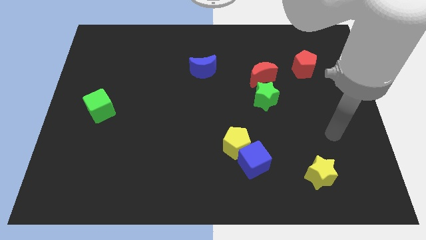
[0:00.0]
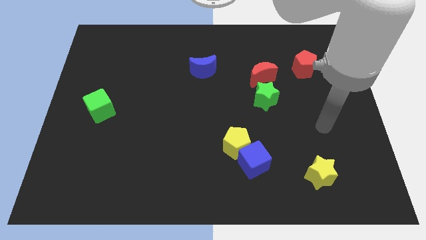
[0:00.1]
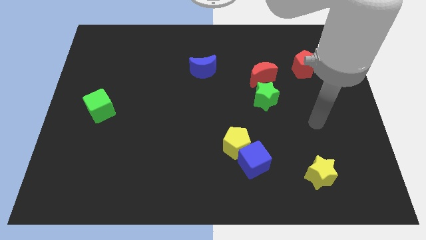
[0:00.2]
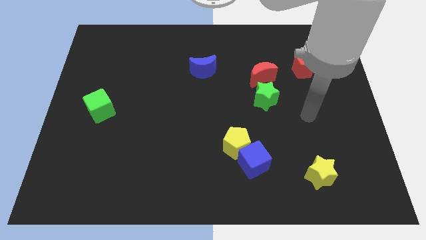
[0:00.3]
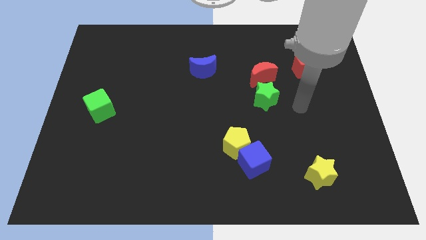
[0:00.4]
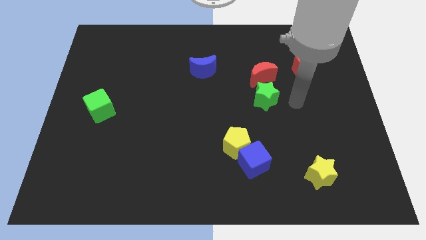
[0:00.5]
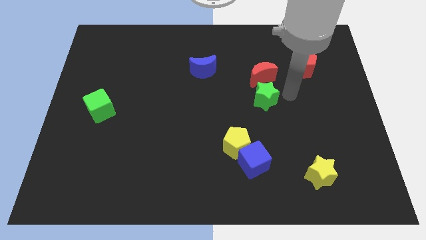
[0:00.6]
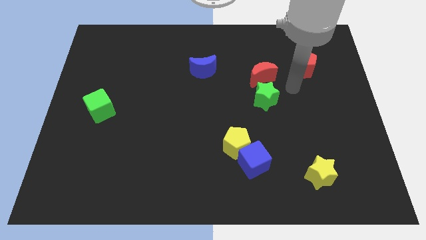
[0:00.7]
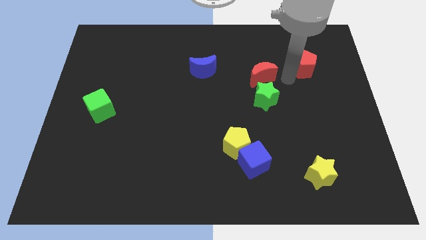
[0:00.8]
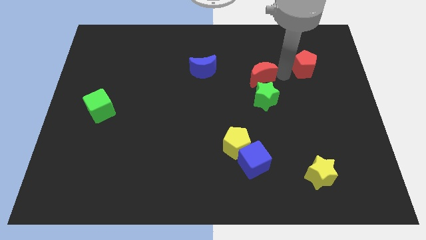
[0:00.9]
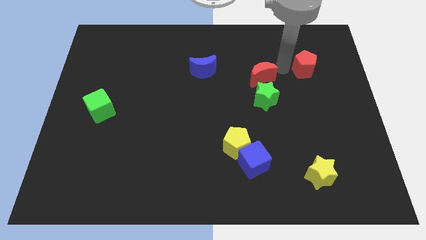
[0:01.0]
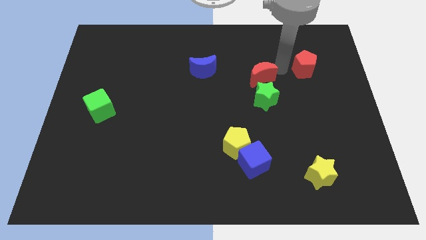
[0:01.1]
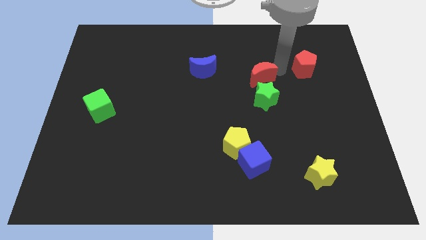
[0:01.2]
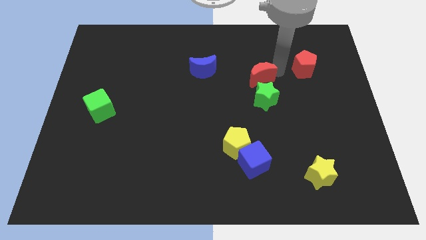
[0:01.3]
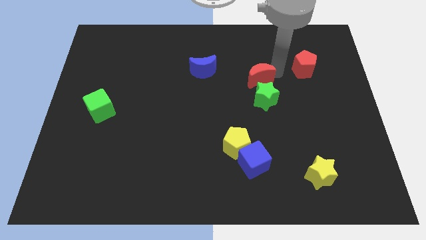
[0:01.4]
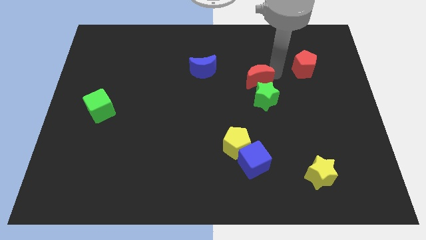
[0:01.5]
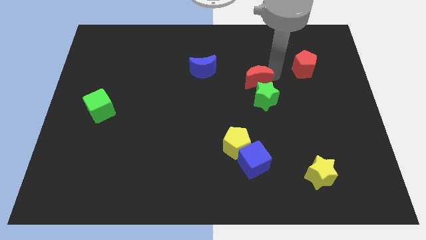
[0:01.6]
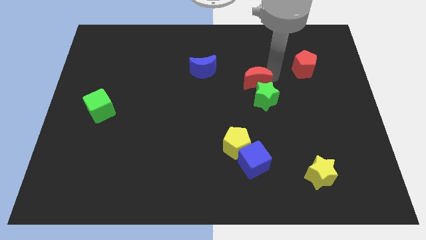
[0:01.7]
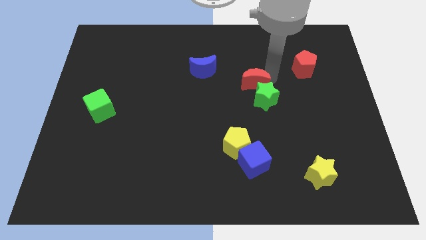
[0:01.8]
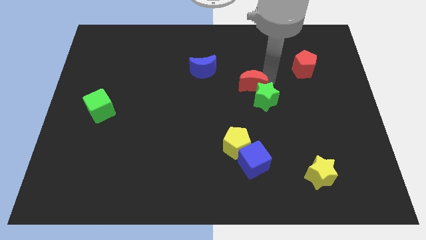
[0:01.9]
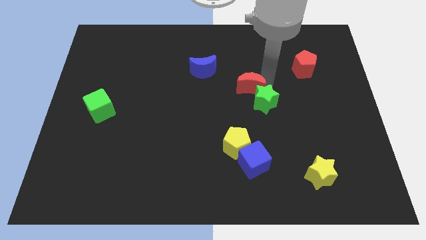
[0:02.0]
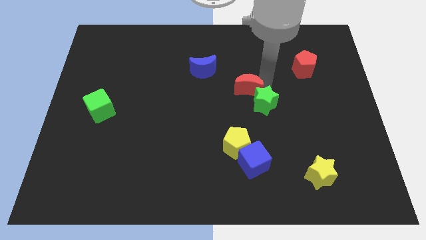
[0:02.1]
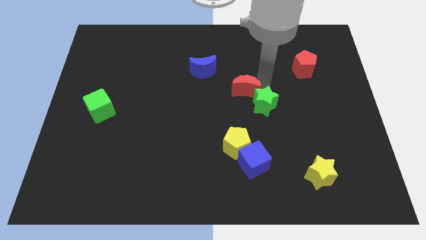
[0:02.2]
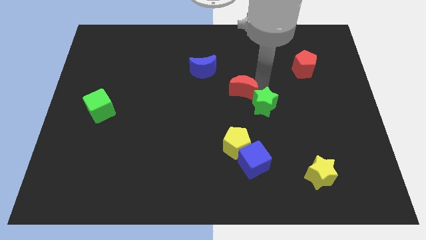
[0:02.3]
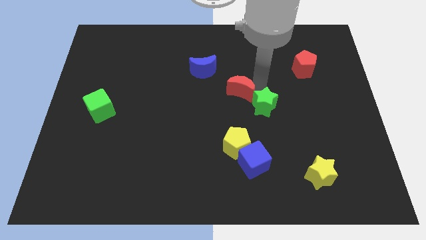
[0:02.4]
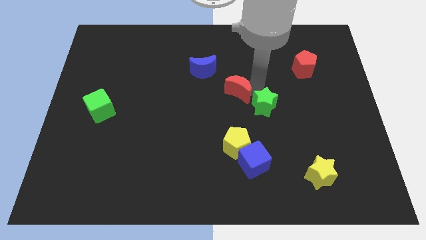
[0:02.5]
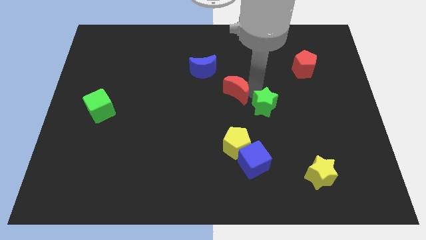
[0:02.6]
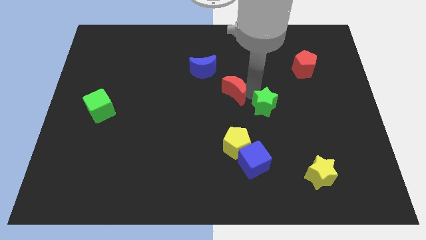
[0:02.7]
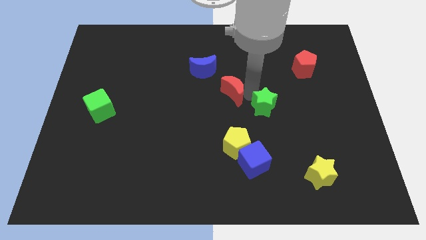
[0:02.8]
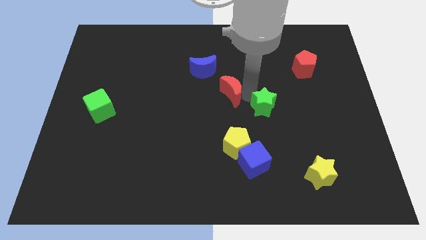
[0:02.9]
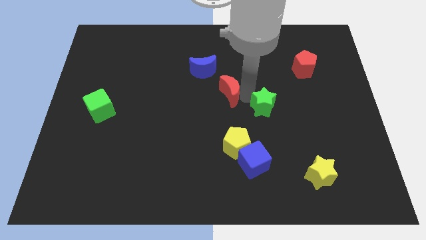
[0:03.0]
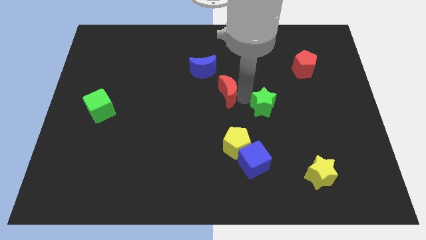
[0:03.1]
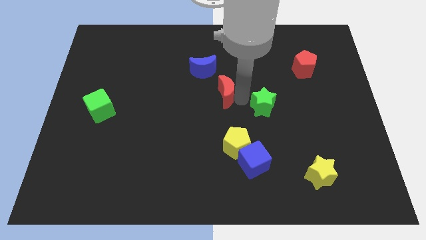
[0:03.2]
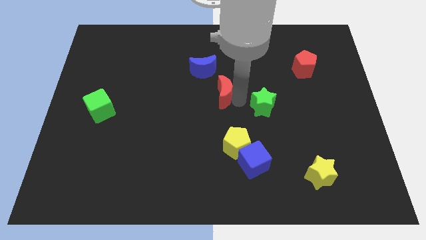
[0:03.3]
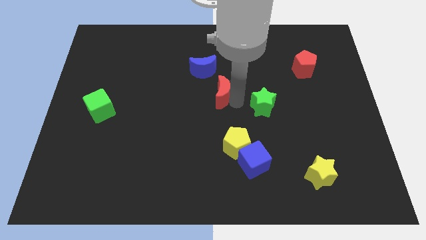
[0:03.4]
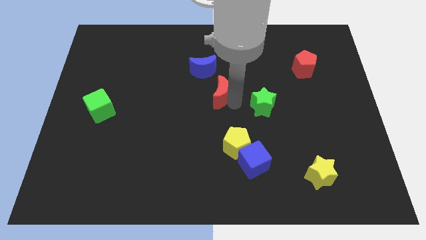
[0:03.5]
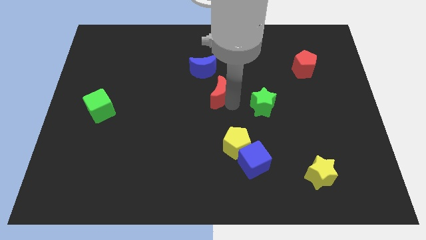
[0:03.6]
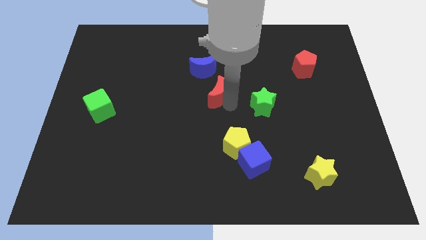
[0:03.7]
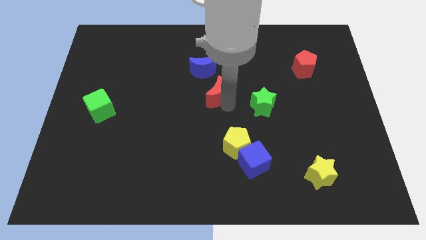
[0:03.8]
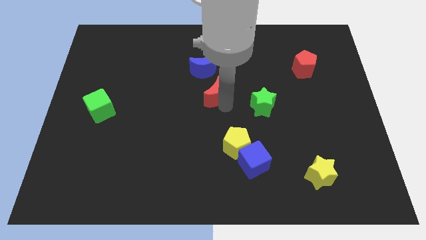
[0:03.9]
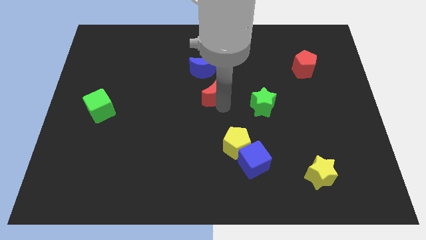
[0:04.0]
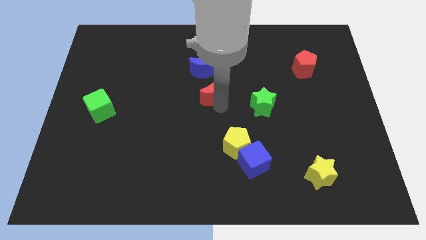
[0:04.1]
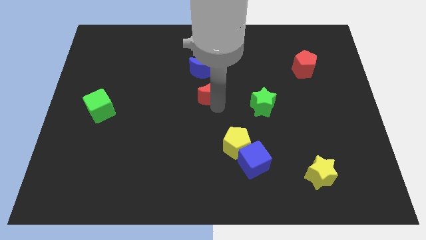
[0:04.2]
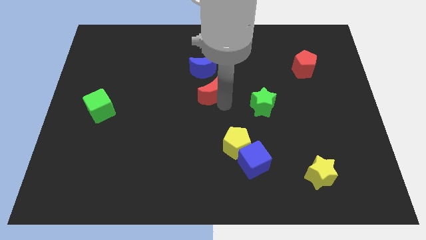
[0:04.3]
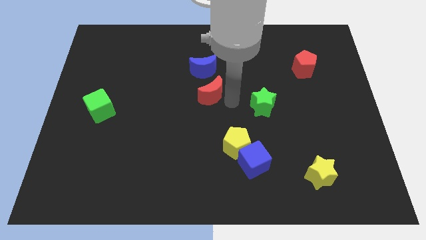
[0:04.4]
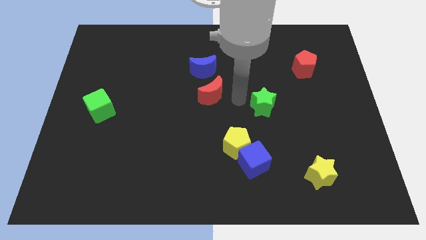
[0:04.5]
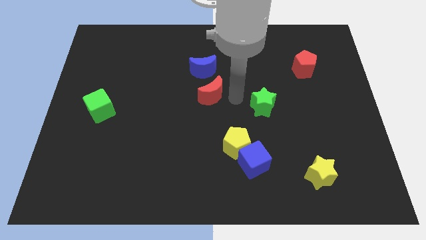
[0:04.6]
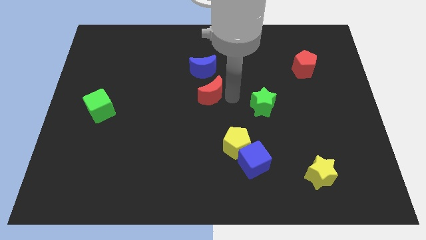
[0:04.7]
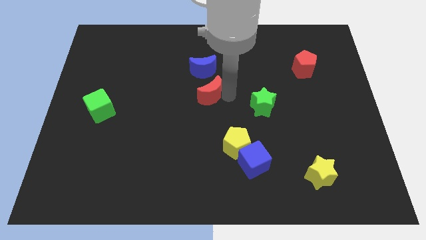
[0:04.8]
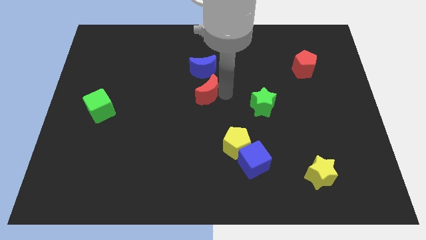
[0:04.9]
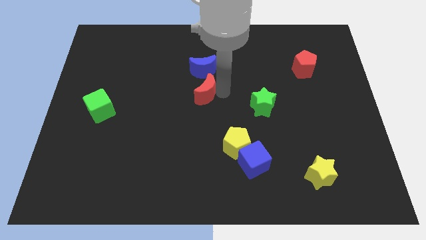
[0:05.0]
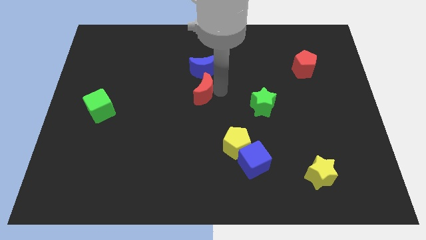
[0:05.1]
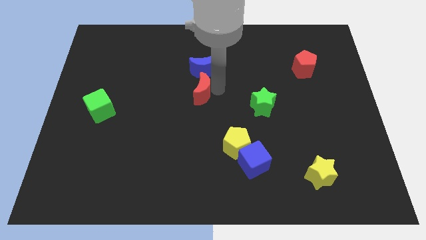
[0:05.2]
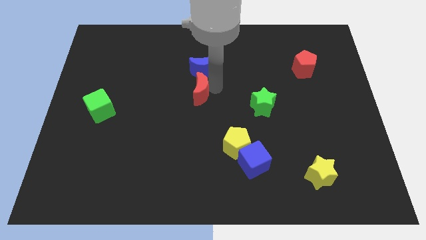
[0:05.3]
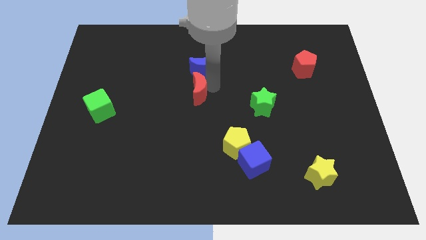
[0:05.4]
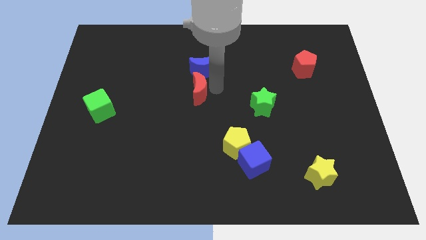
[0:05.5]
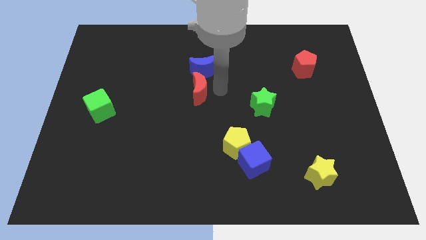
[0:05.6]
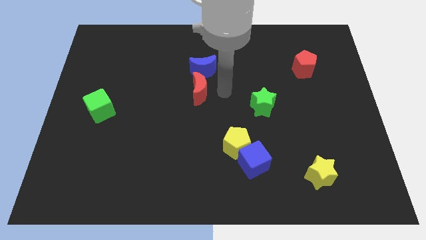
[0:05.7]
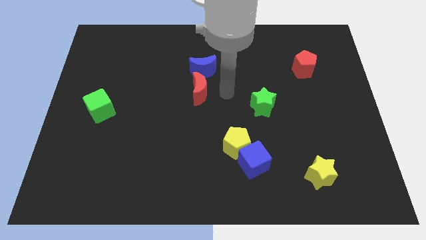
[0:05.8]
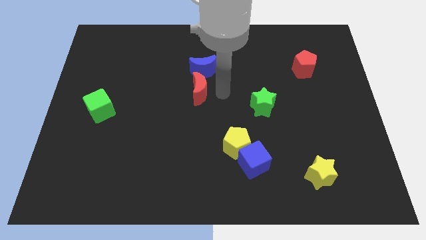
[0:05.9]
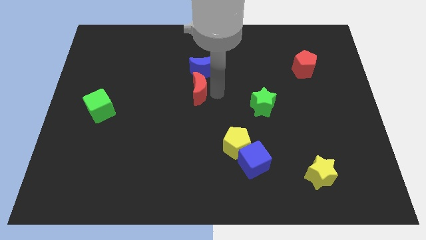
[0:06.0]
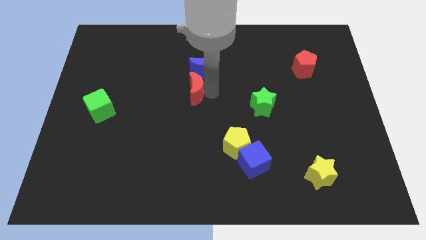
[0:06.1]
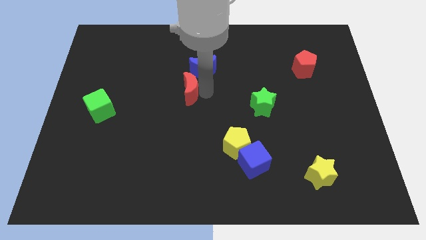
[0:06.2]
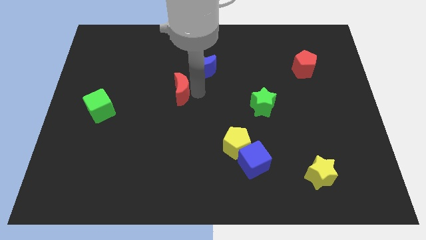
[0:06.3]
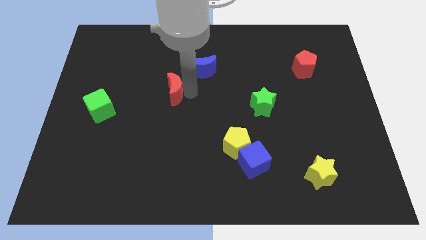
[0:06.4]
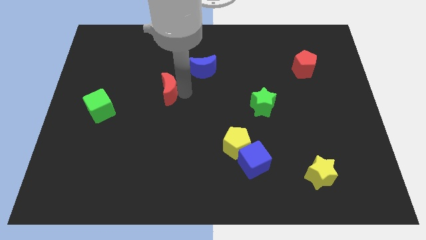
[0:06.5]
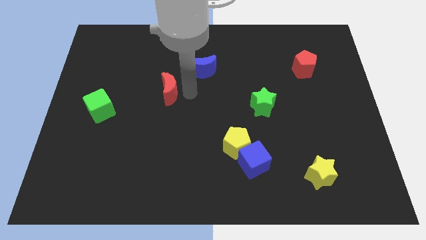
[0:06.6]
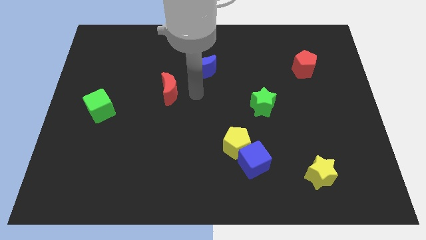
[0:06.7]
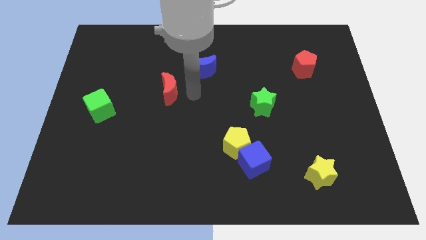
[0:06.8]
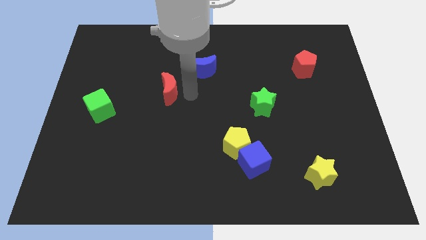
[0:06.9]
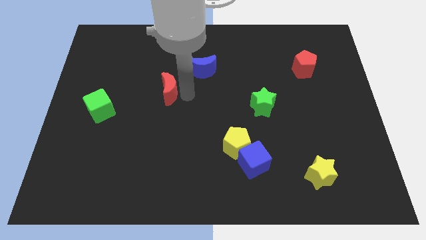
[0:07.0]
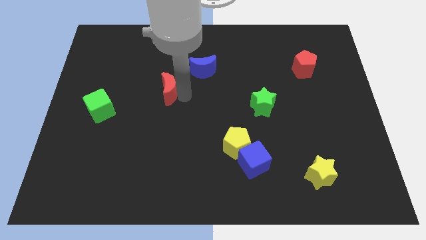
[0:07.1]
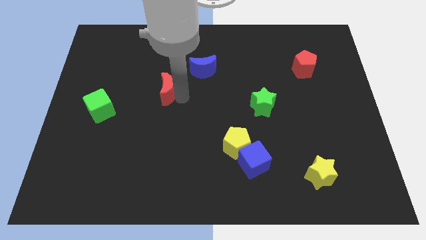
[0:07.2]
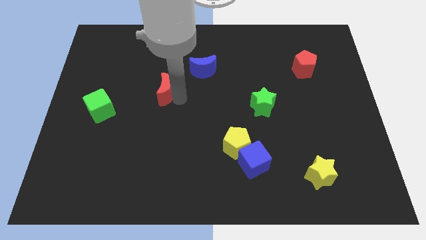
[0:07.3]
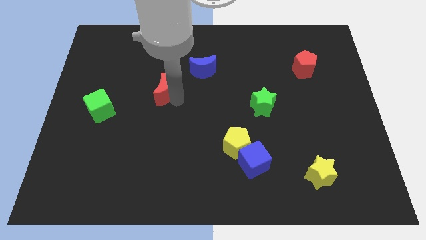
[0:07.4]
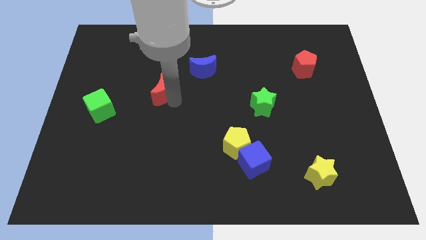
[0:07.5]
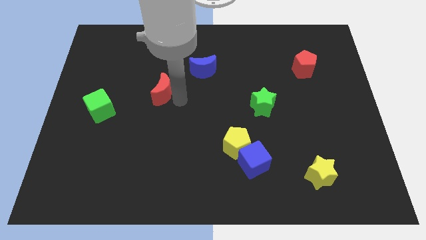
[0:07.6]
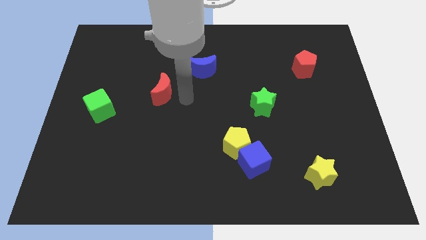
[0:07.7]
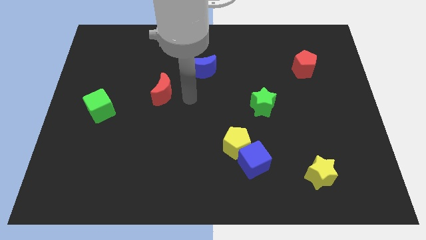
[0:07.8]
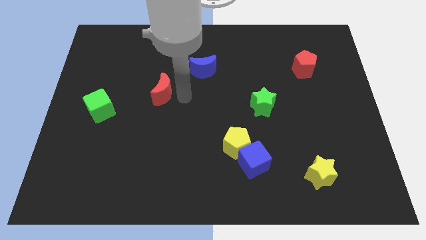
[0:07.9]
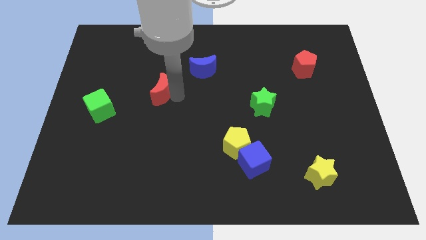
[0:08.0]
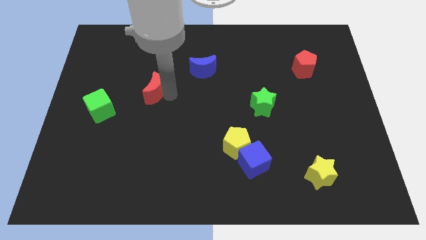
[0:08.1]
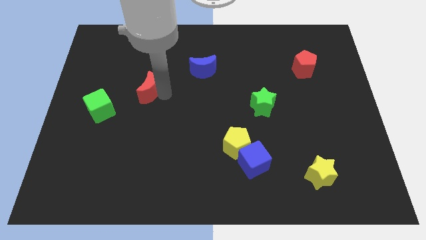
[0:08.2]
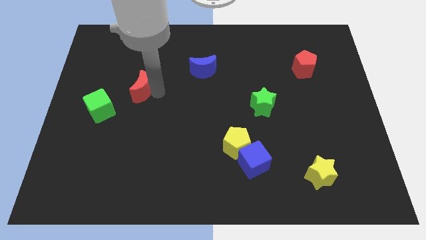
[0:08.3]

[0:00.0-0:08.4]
move the red moon to the top right side of the green cube
